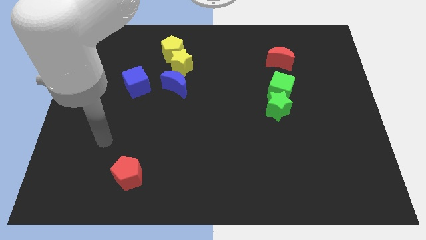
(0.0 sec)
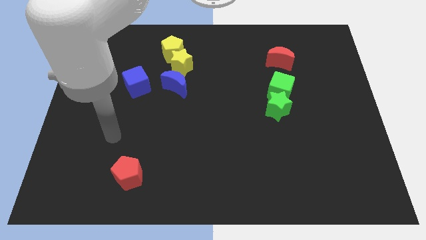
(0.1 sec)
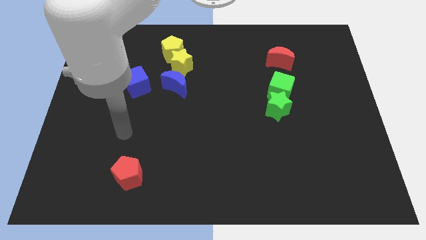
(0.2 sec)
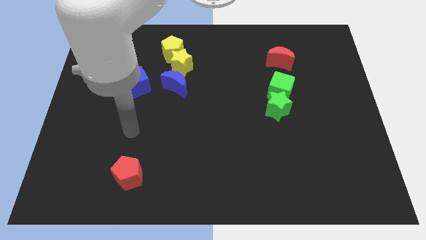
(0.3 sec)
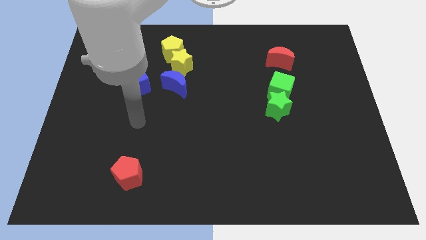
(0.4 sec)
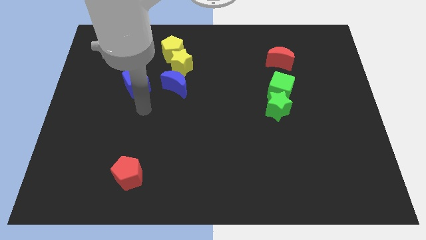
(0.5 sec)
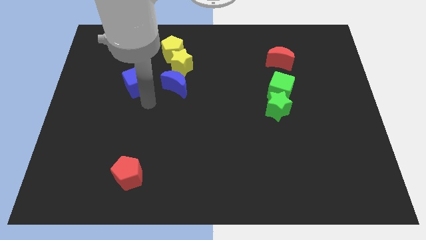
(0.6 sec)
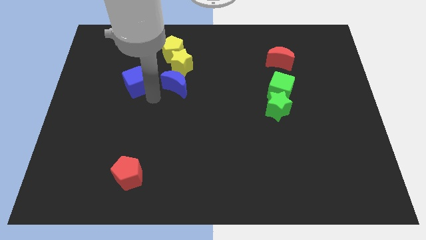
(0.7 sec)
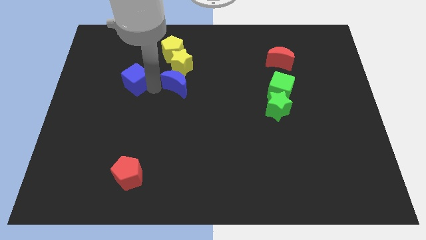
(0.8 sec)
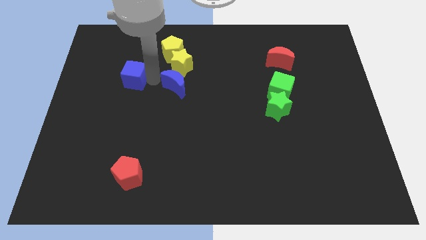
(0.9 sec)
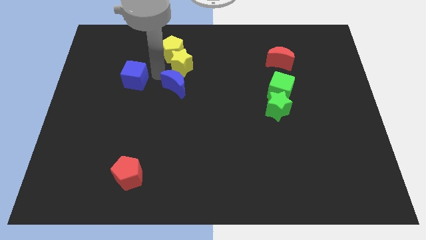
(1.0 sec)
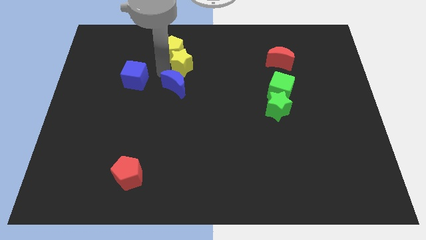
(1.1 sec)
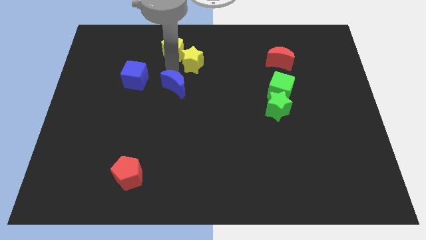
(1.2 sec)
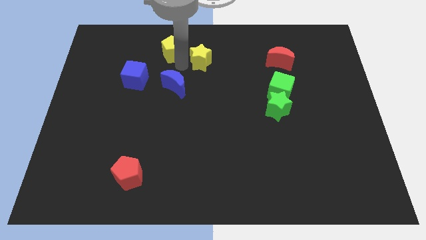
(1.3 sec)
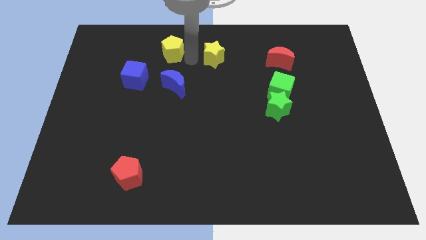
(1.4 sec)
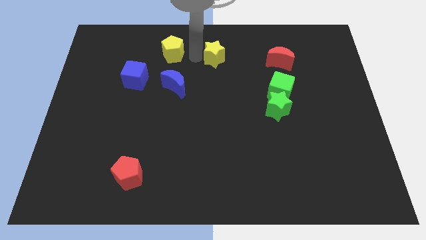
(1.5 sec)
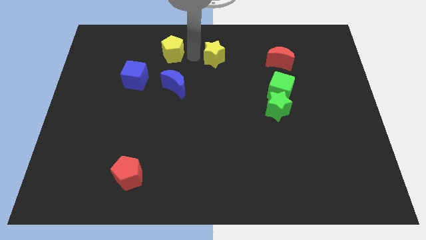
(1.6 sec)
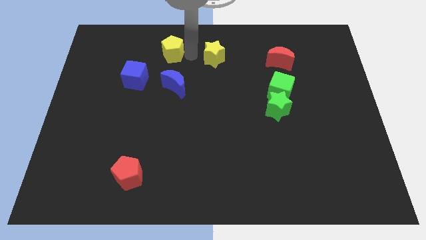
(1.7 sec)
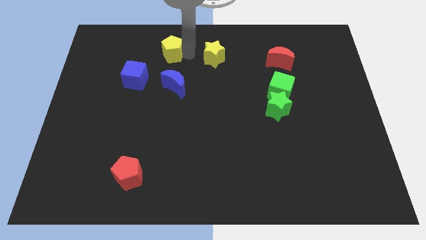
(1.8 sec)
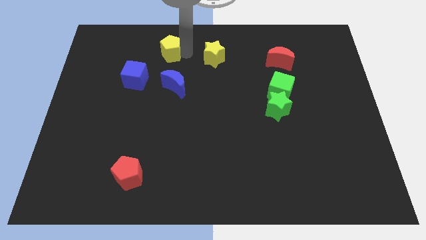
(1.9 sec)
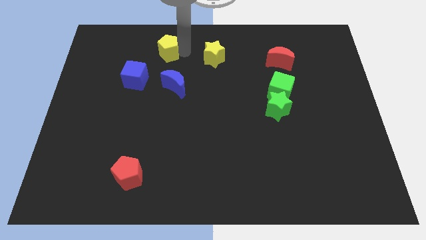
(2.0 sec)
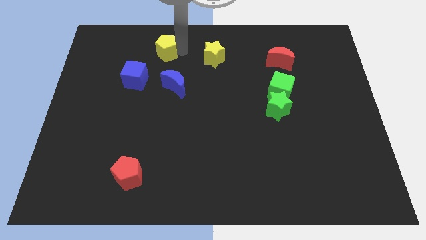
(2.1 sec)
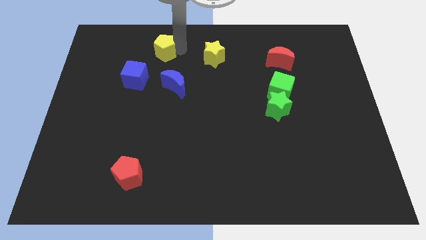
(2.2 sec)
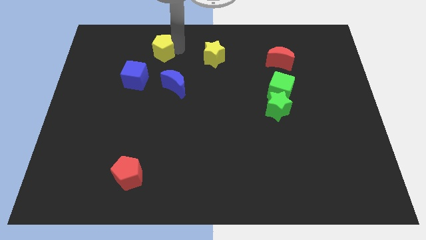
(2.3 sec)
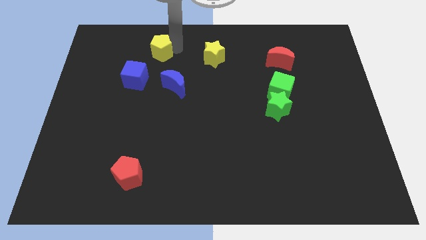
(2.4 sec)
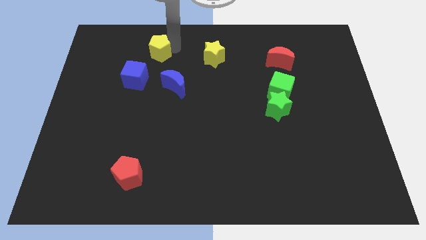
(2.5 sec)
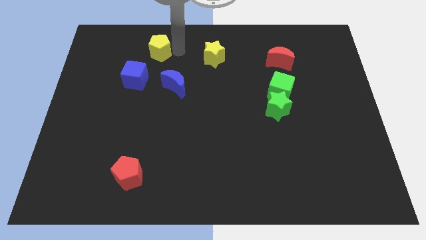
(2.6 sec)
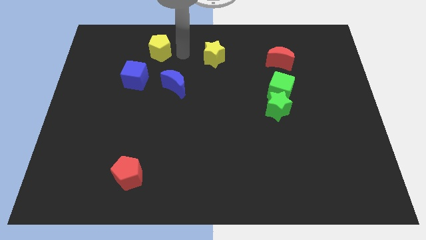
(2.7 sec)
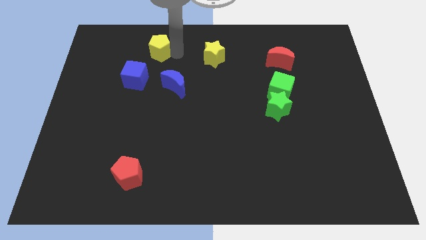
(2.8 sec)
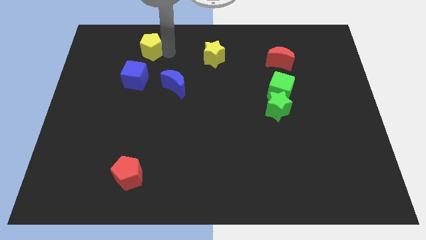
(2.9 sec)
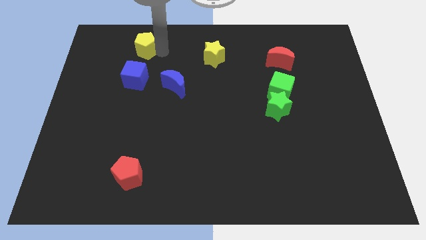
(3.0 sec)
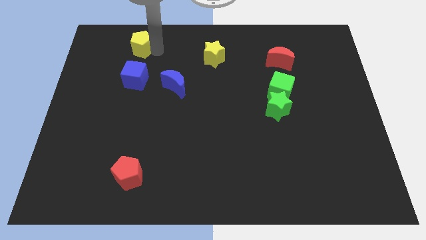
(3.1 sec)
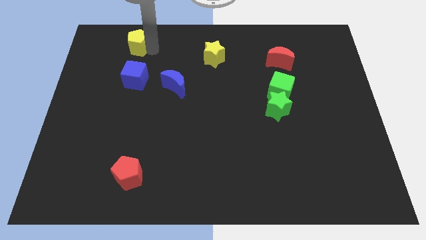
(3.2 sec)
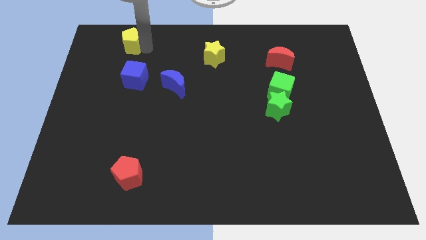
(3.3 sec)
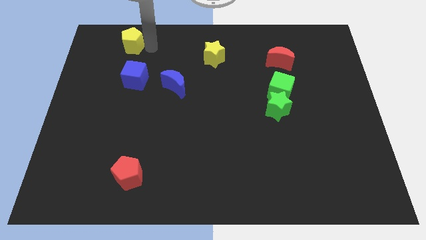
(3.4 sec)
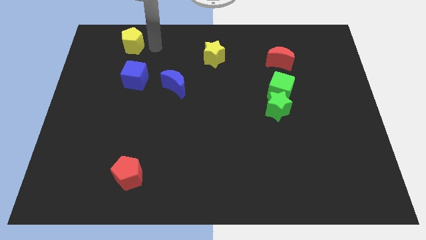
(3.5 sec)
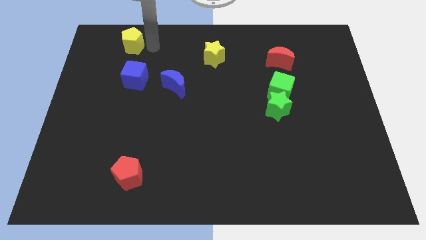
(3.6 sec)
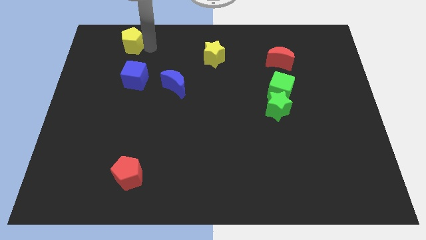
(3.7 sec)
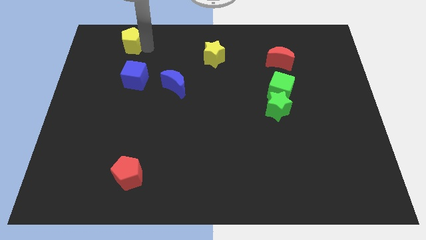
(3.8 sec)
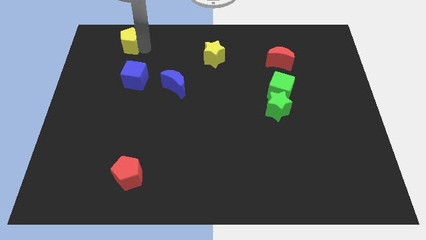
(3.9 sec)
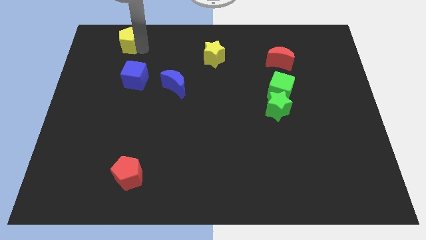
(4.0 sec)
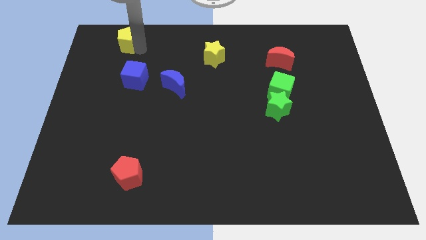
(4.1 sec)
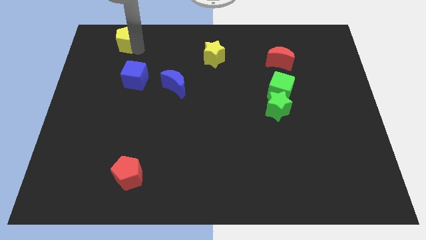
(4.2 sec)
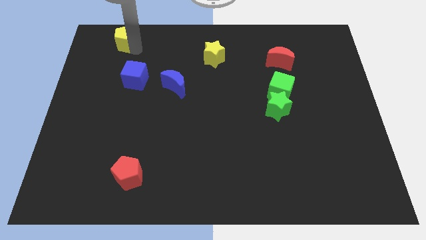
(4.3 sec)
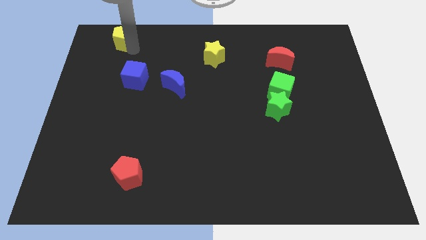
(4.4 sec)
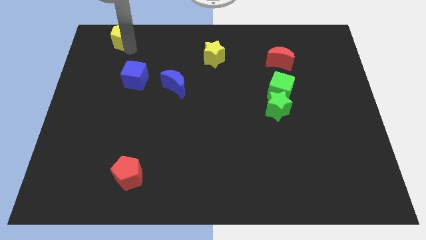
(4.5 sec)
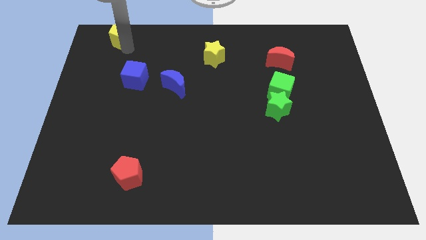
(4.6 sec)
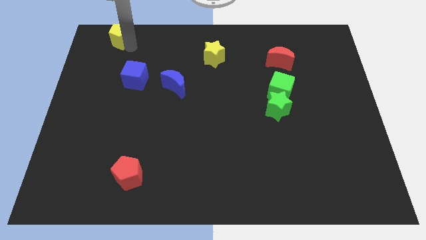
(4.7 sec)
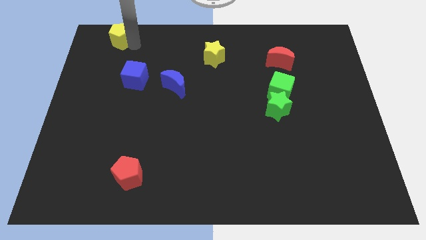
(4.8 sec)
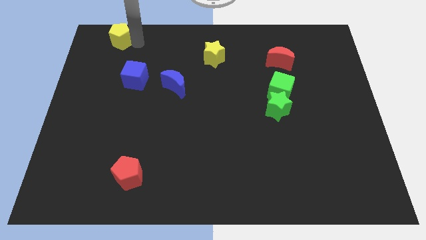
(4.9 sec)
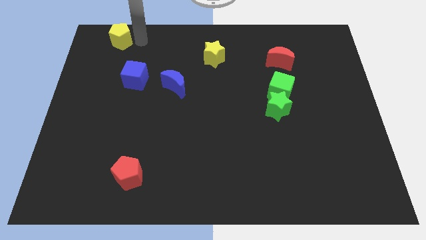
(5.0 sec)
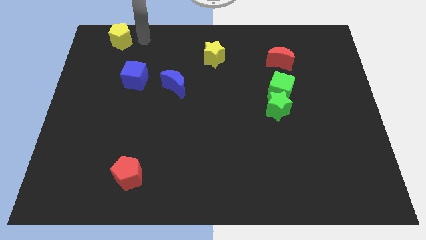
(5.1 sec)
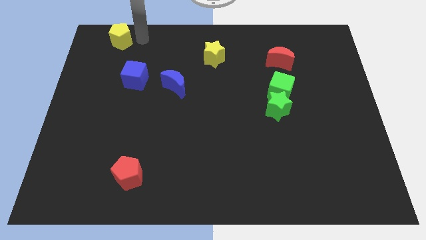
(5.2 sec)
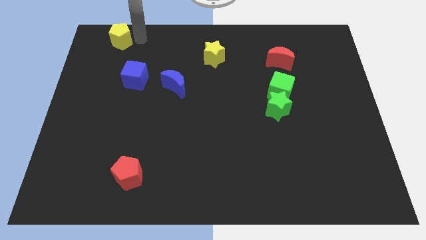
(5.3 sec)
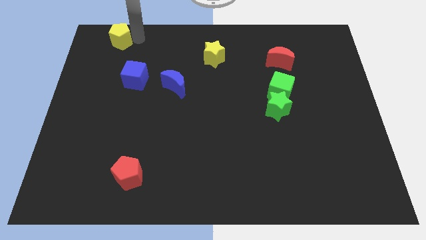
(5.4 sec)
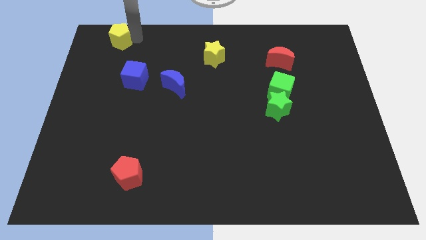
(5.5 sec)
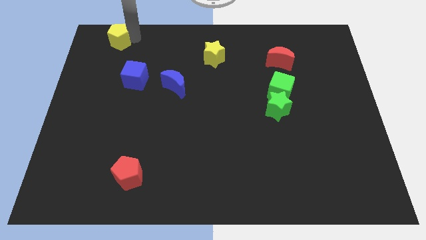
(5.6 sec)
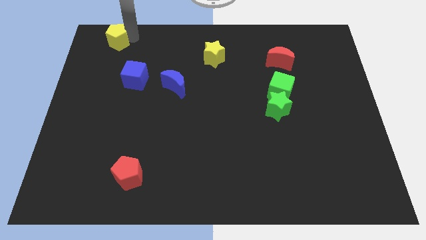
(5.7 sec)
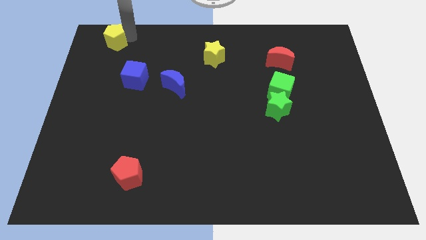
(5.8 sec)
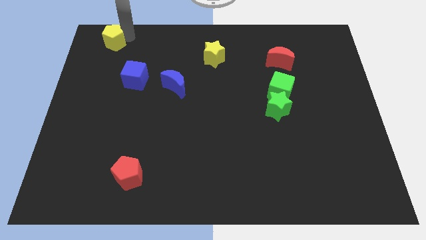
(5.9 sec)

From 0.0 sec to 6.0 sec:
move the yellow pentagon to the top left
